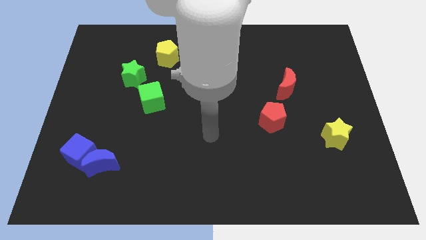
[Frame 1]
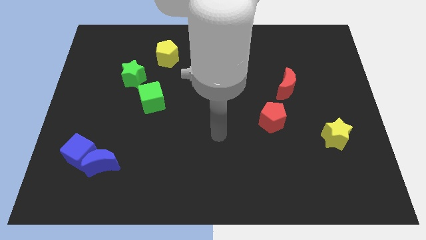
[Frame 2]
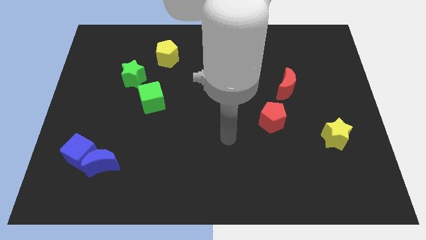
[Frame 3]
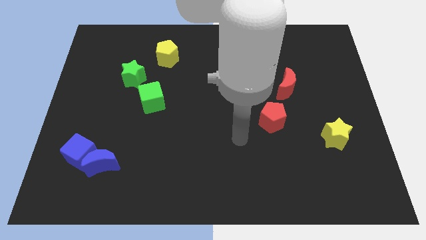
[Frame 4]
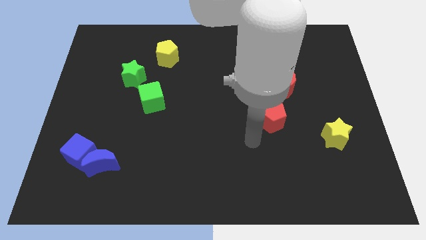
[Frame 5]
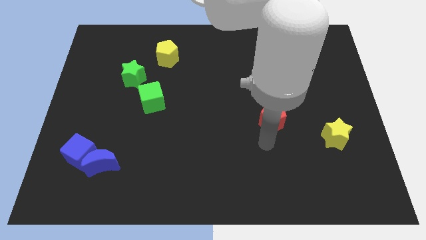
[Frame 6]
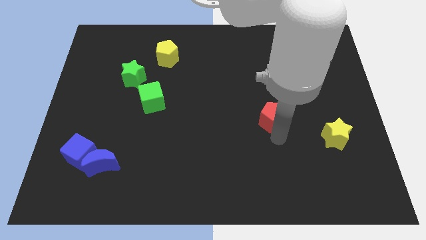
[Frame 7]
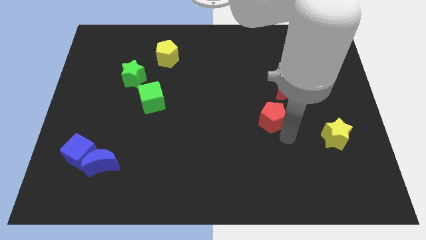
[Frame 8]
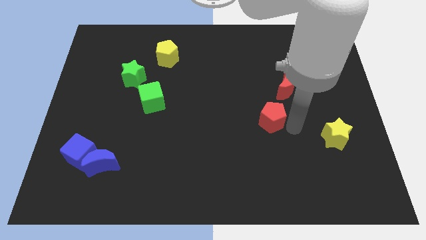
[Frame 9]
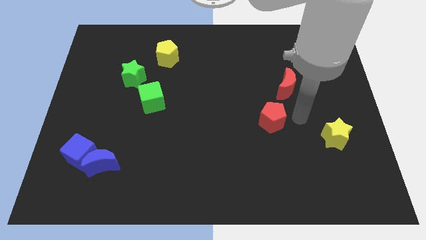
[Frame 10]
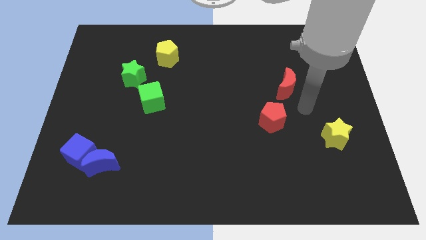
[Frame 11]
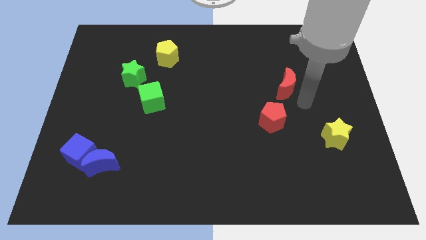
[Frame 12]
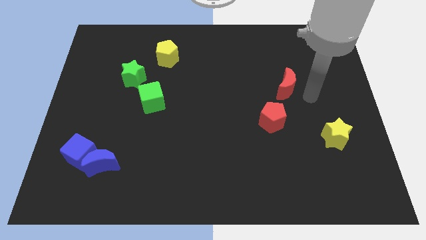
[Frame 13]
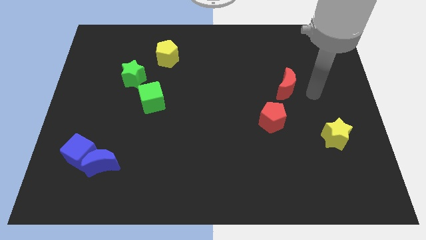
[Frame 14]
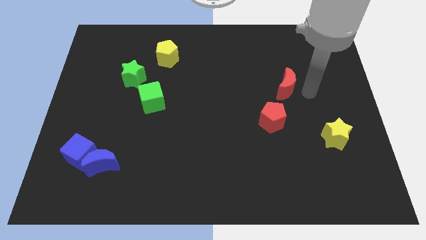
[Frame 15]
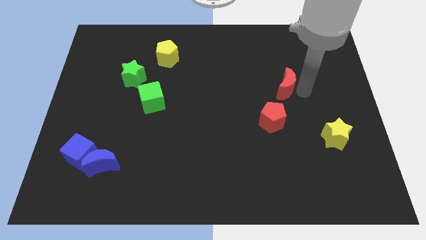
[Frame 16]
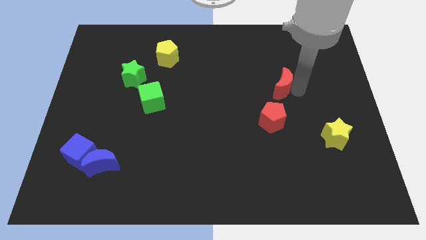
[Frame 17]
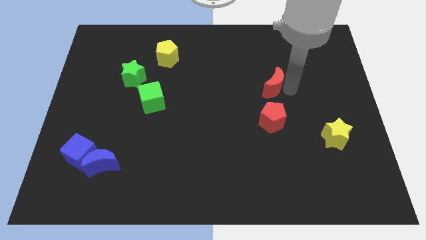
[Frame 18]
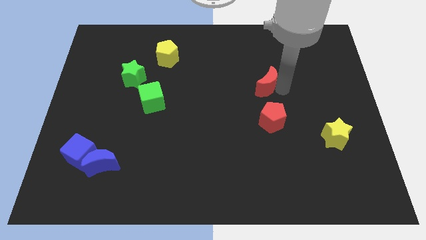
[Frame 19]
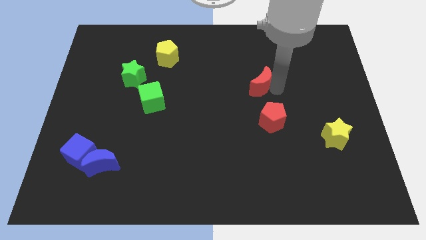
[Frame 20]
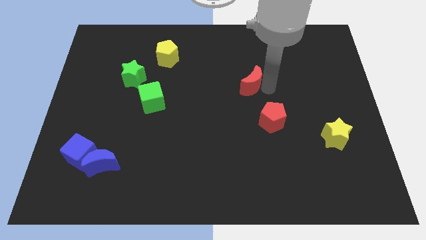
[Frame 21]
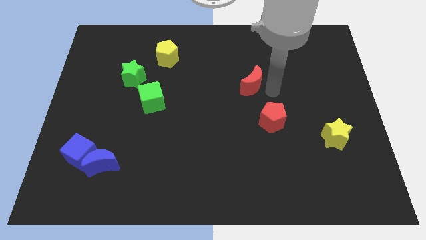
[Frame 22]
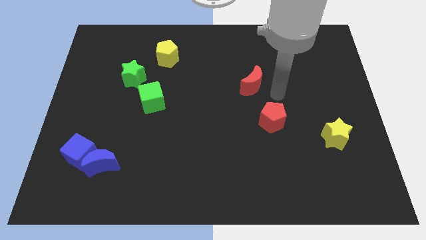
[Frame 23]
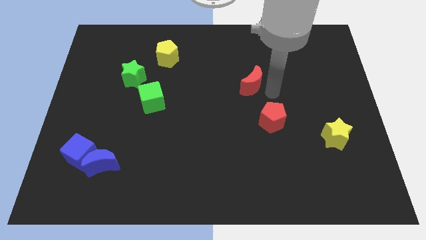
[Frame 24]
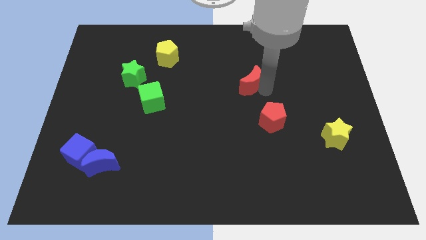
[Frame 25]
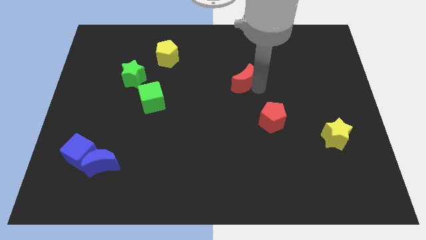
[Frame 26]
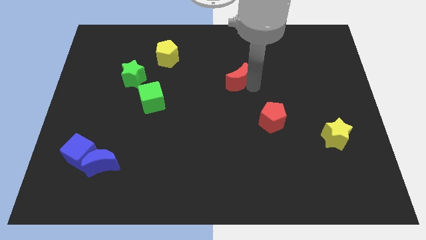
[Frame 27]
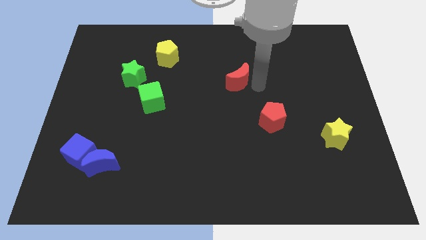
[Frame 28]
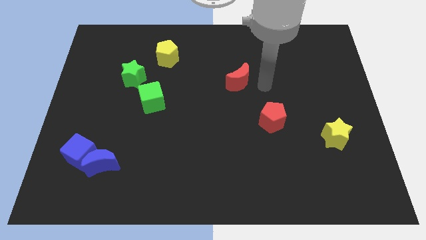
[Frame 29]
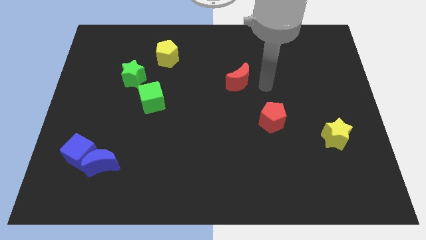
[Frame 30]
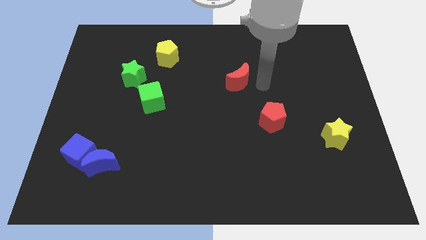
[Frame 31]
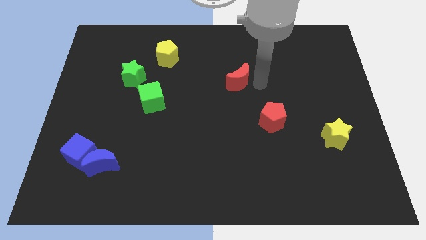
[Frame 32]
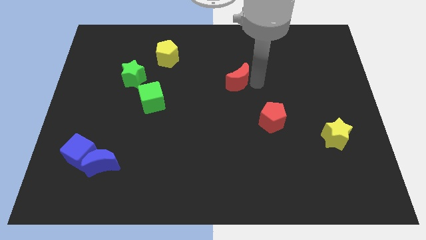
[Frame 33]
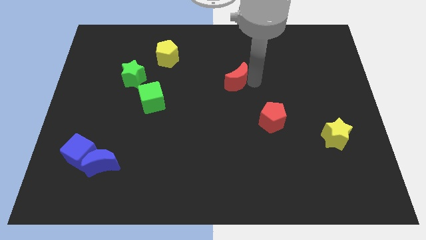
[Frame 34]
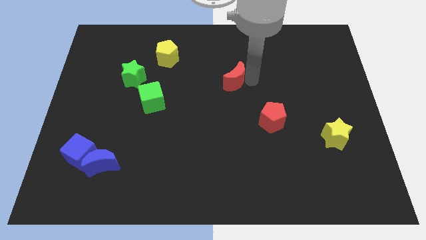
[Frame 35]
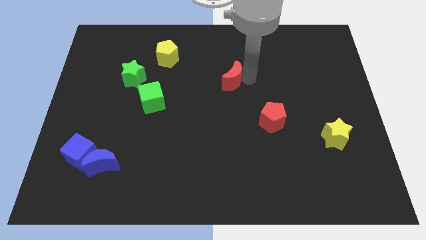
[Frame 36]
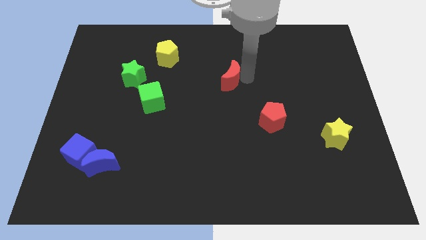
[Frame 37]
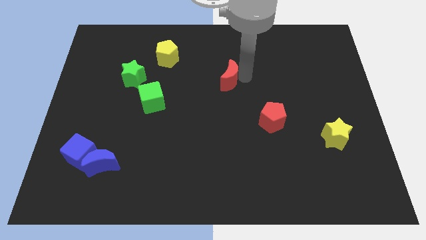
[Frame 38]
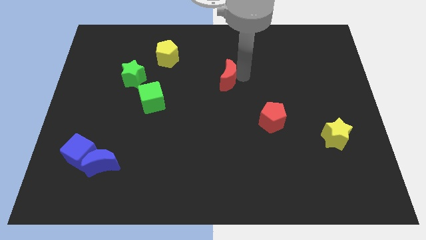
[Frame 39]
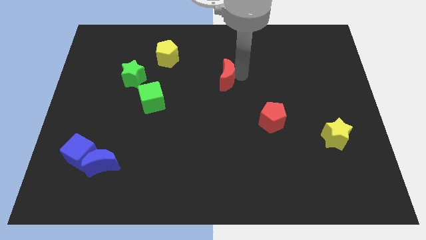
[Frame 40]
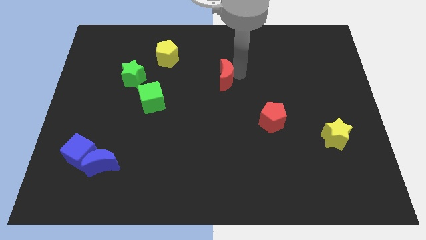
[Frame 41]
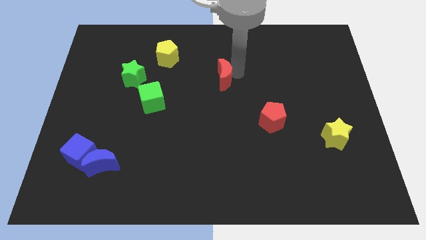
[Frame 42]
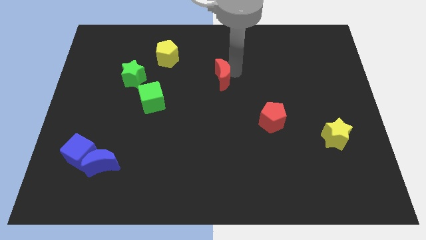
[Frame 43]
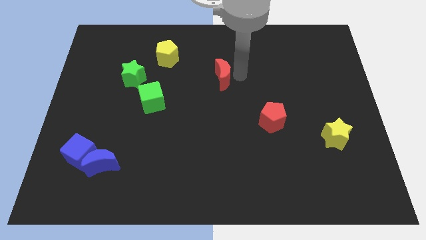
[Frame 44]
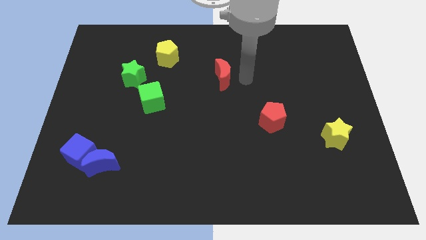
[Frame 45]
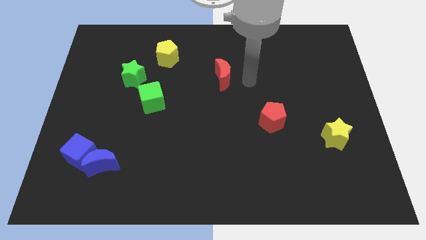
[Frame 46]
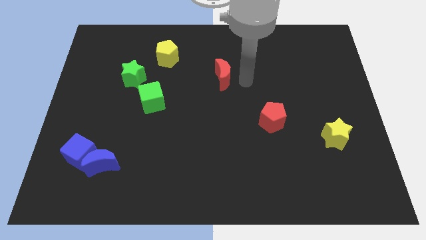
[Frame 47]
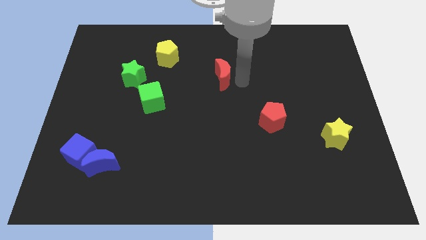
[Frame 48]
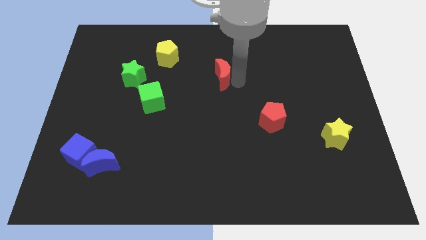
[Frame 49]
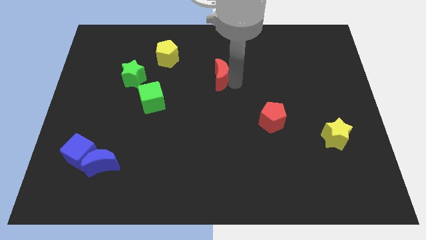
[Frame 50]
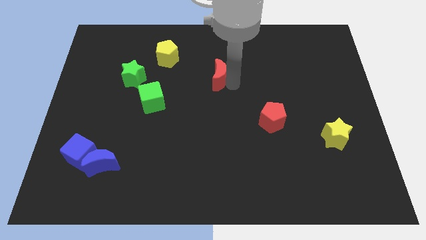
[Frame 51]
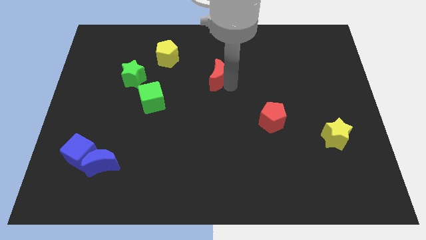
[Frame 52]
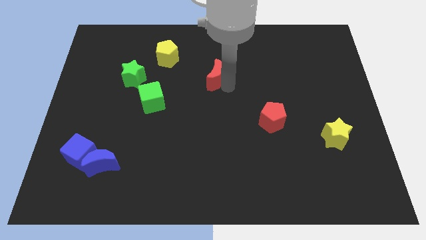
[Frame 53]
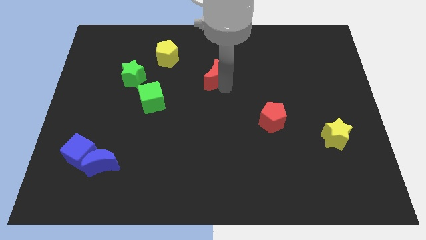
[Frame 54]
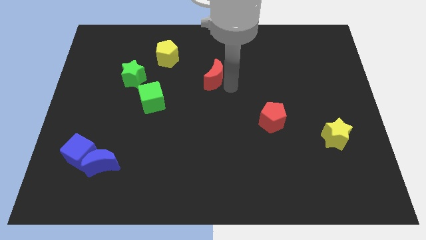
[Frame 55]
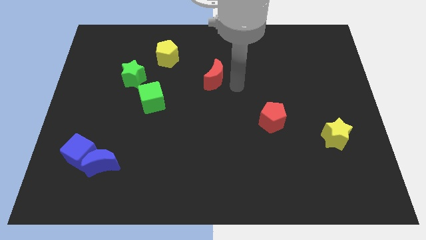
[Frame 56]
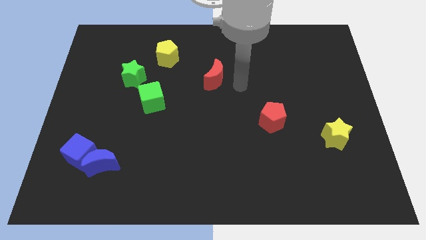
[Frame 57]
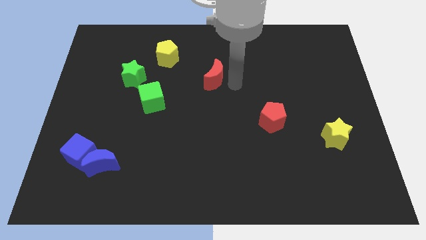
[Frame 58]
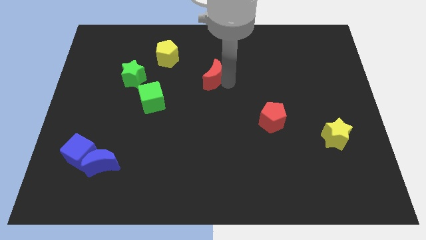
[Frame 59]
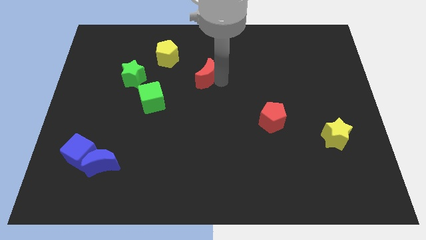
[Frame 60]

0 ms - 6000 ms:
push the red moon diagonally down and to the right of the yellow pentagon
